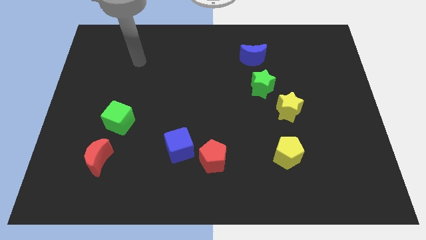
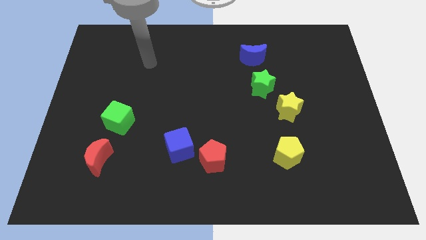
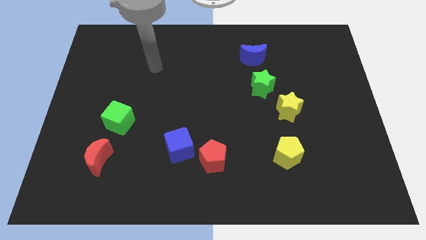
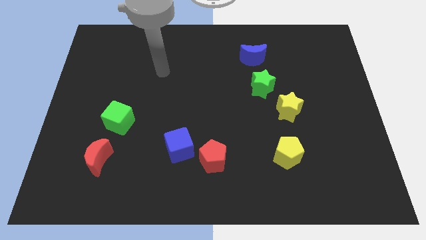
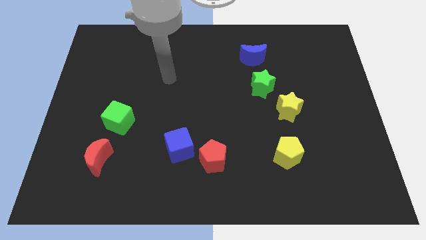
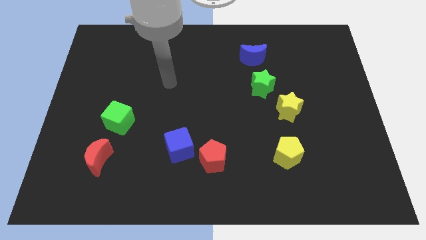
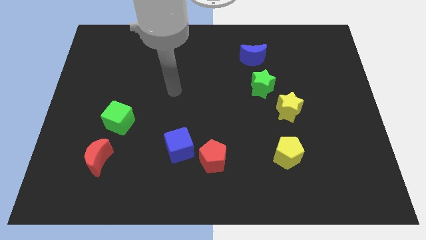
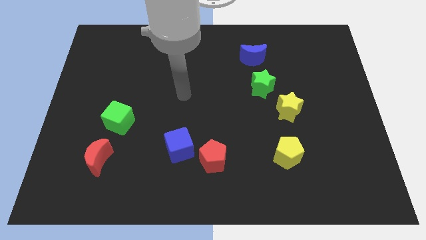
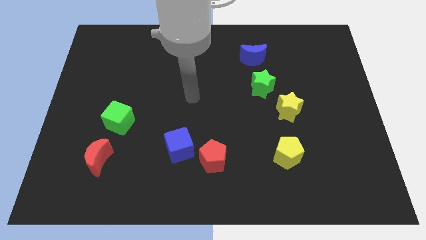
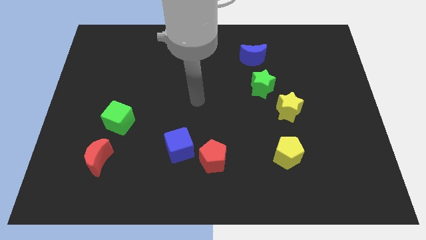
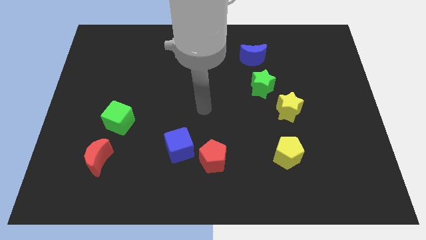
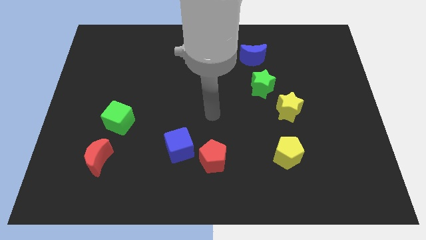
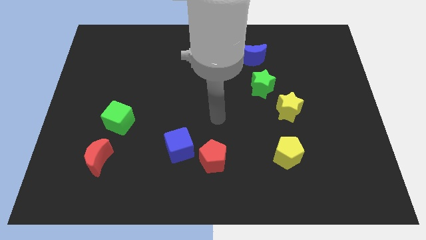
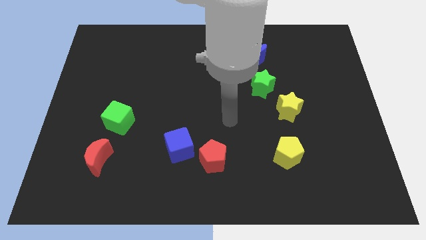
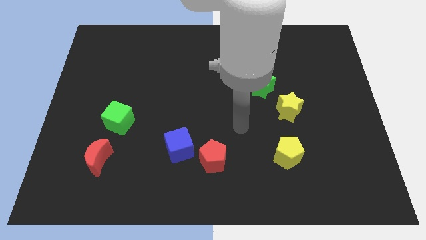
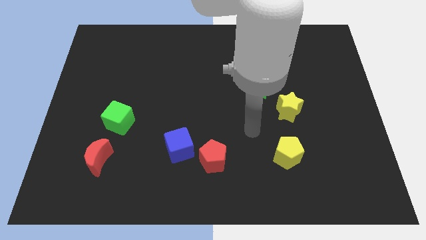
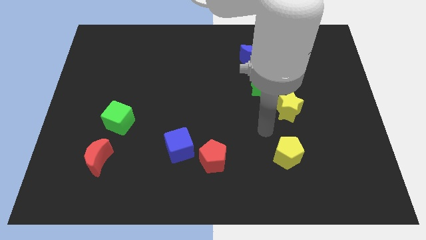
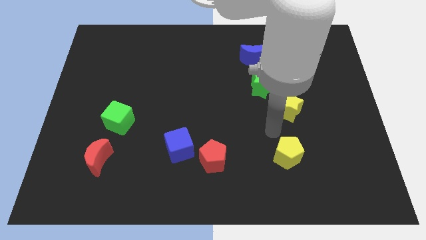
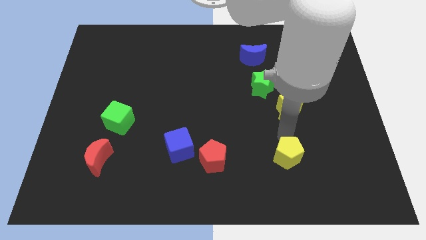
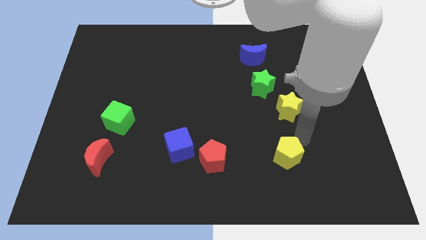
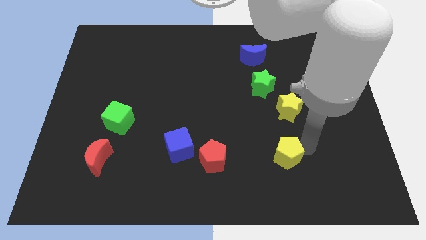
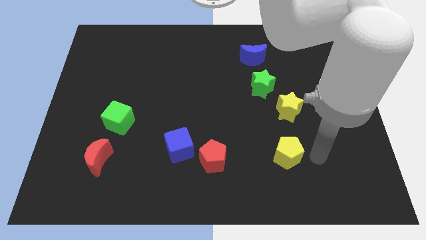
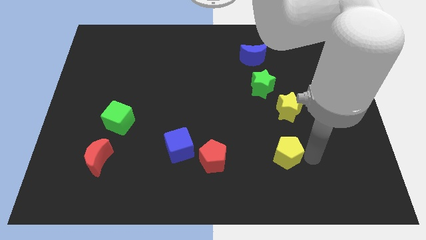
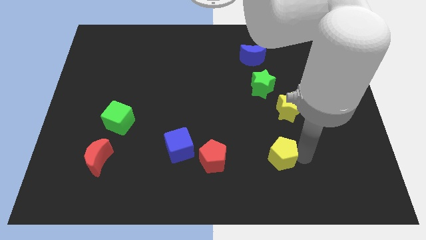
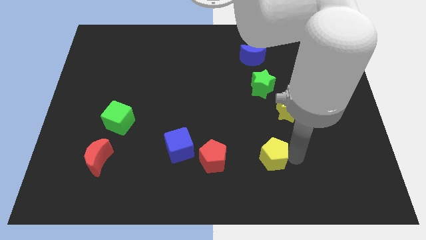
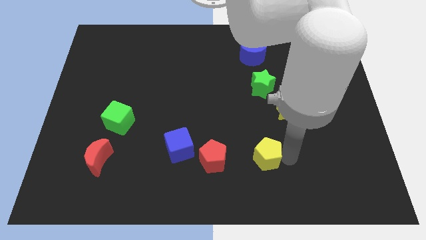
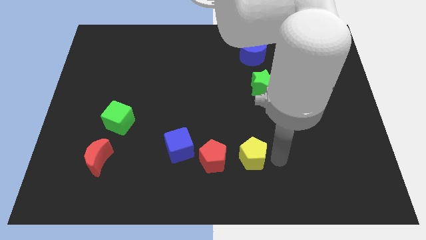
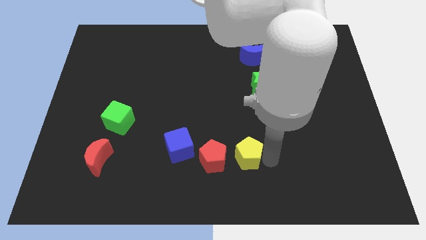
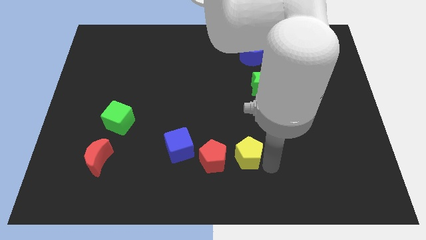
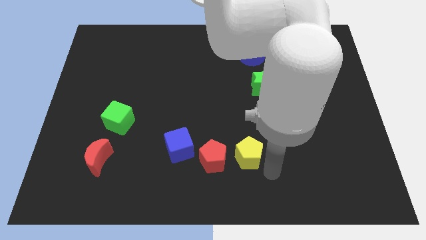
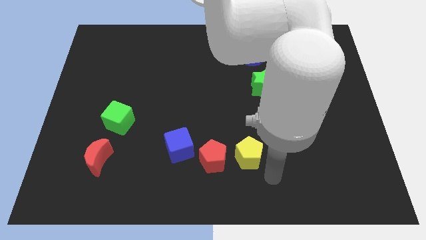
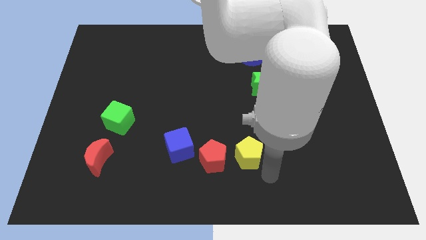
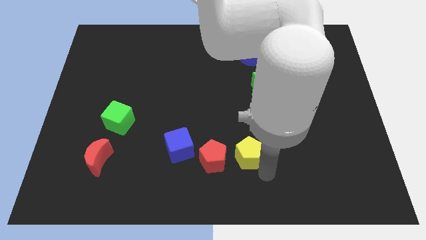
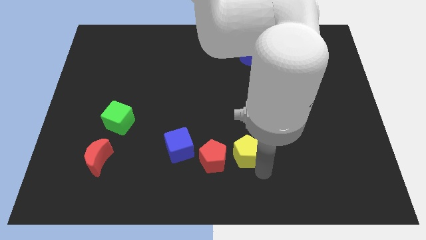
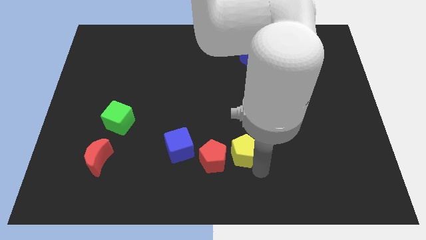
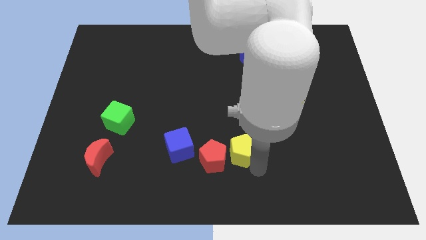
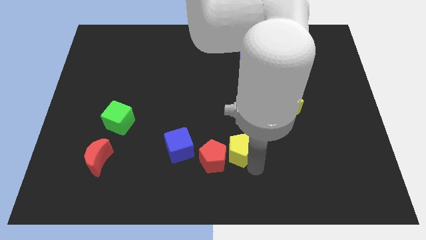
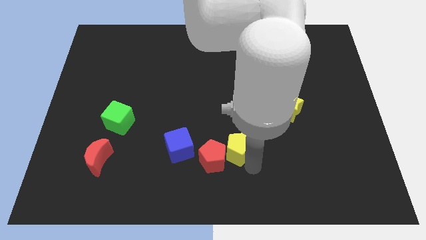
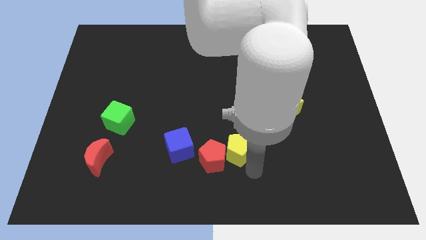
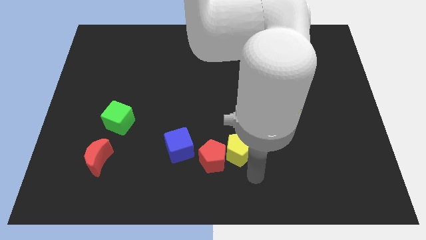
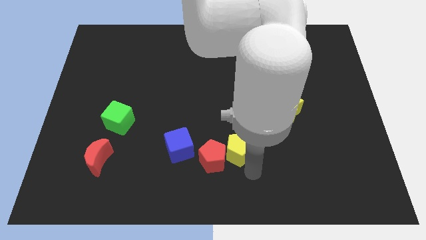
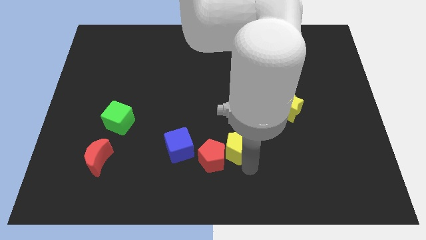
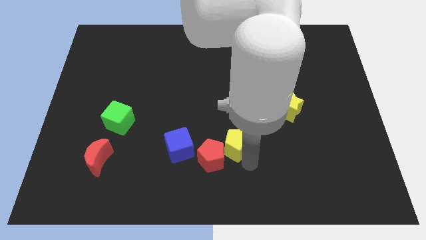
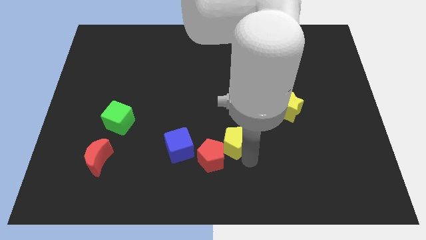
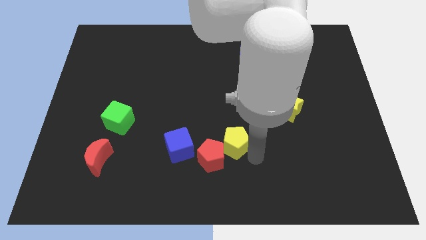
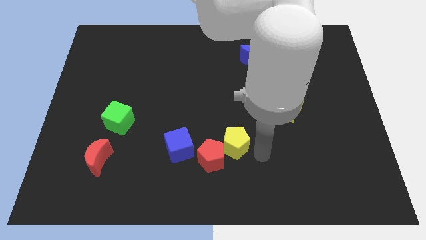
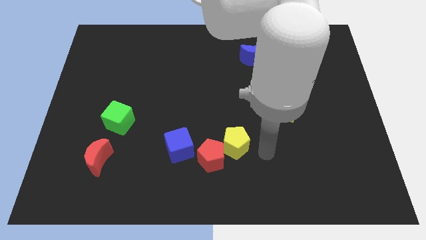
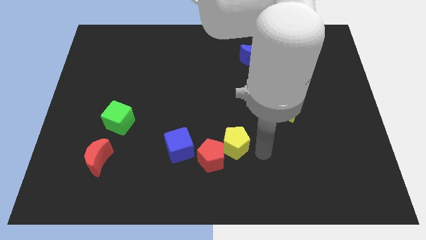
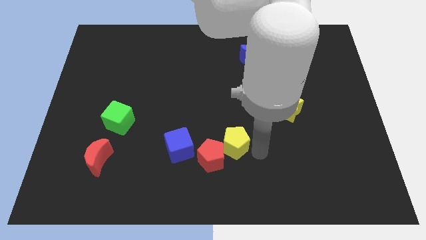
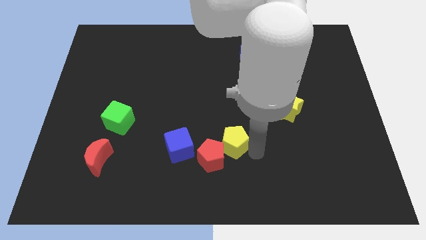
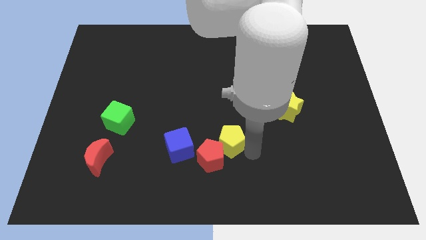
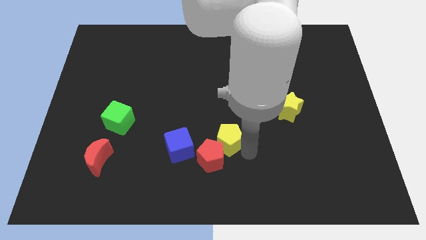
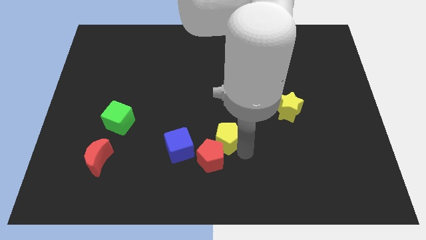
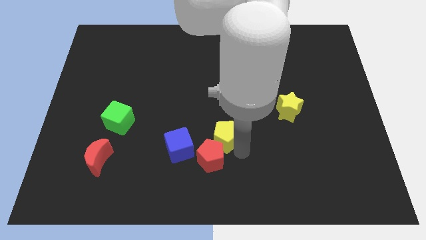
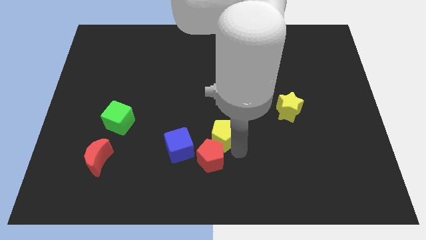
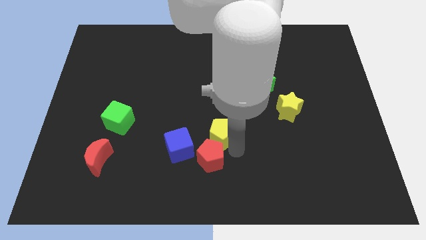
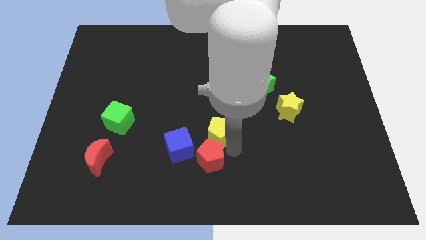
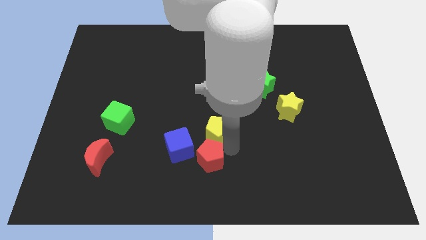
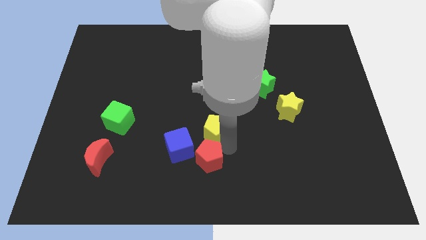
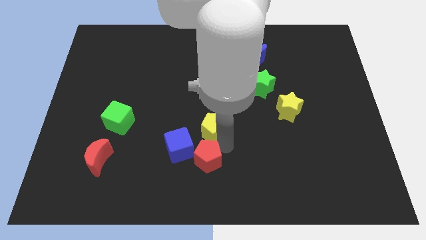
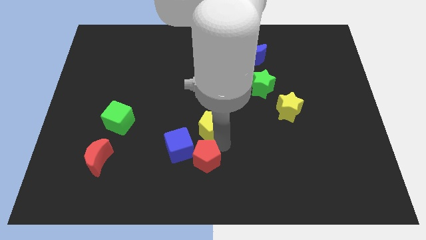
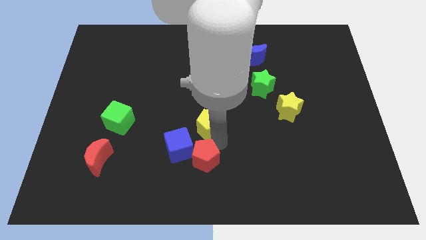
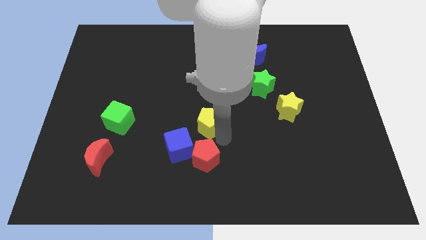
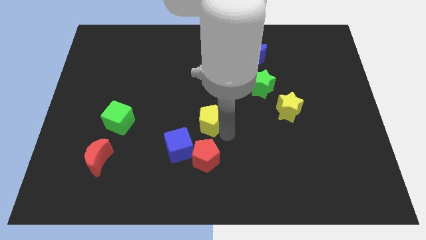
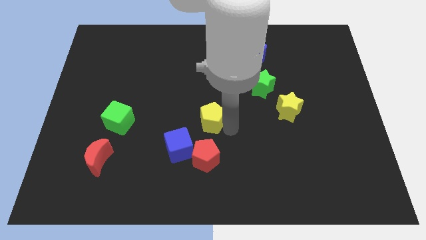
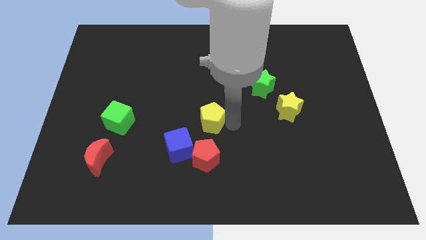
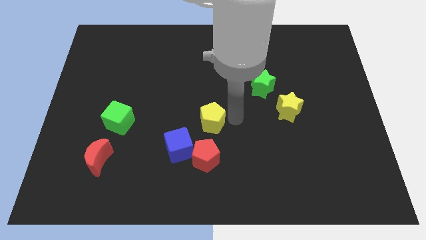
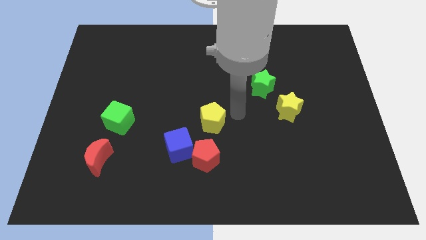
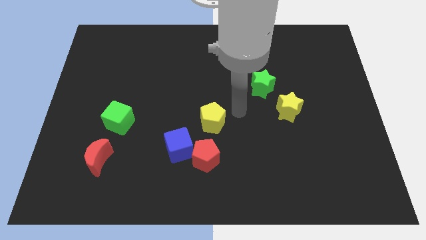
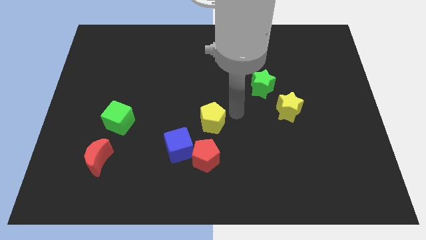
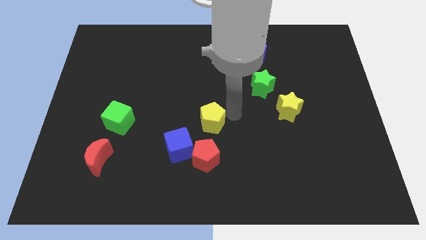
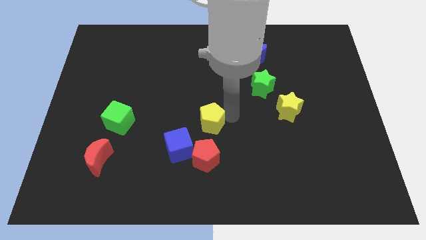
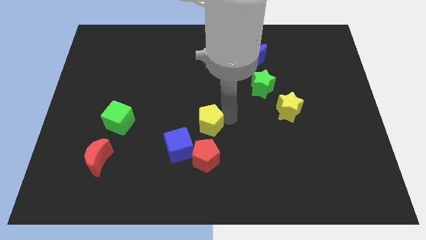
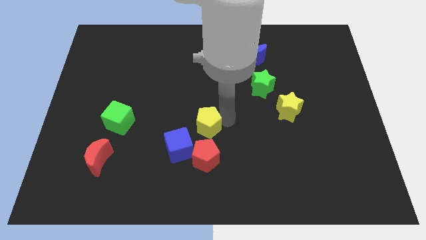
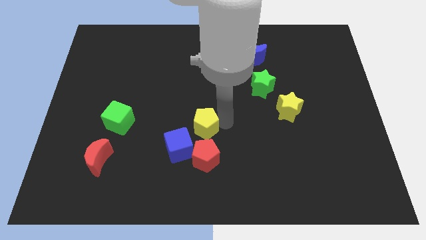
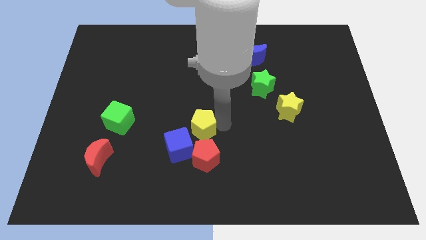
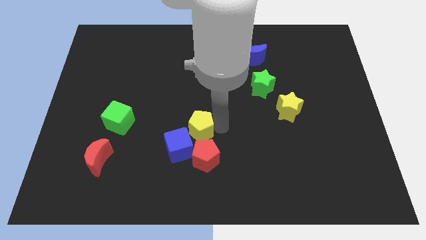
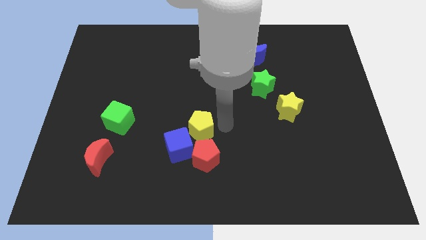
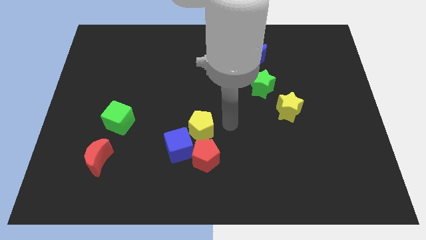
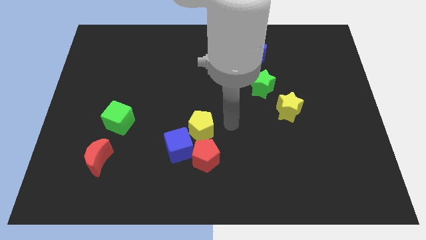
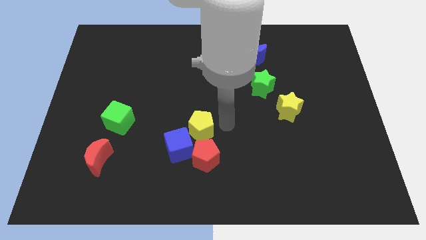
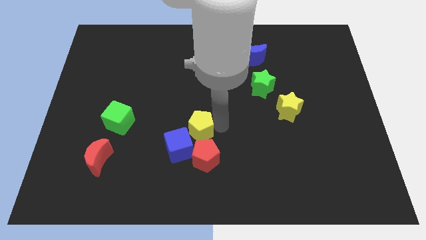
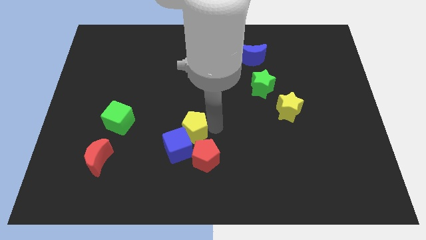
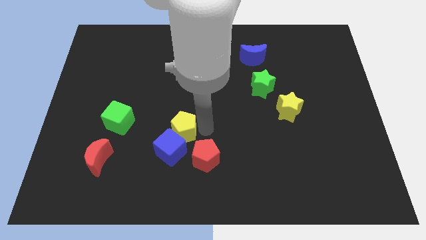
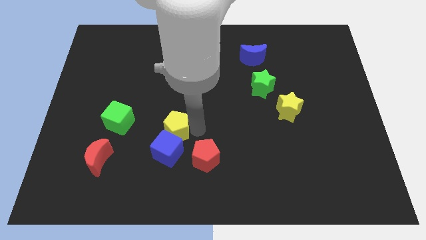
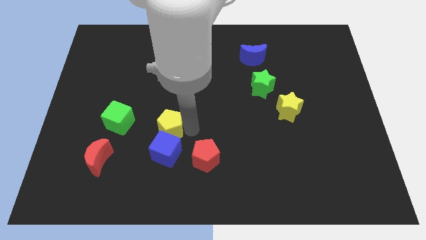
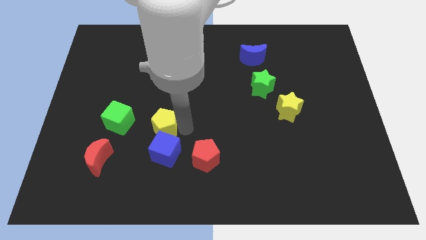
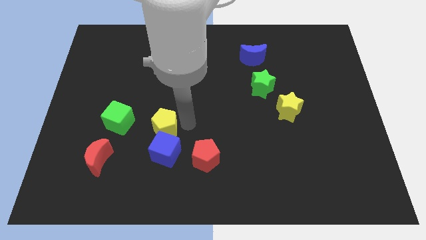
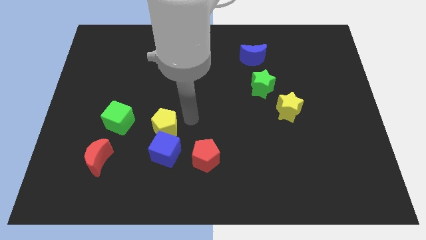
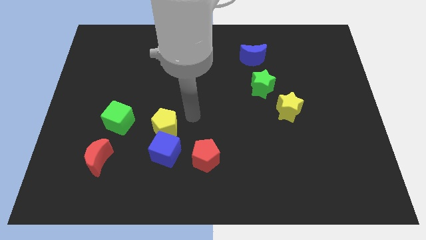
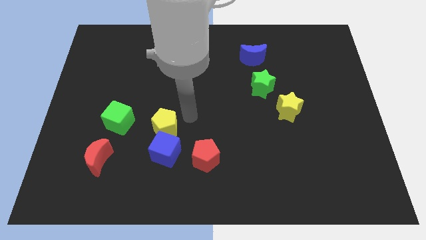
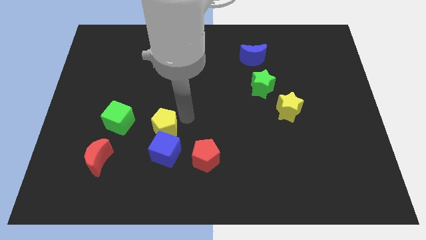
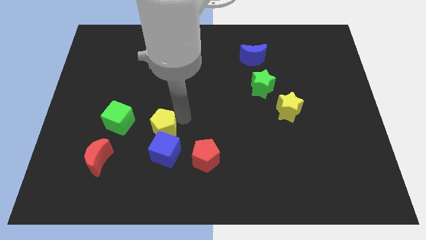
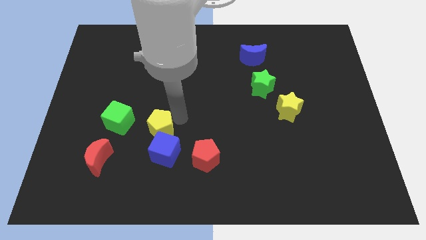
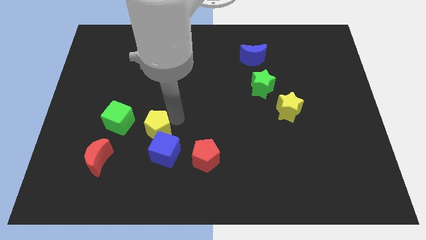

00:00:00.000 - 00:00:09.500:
put the yellow pentagon diagonally down and to the right of the green cube
